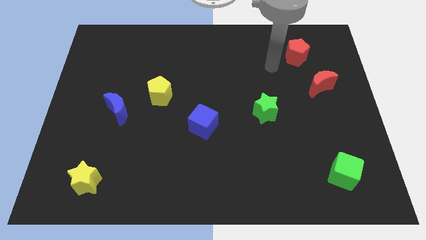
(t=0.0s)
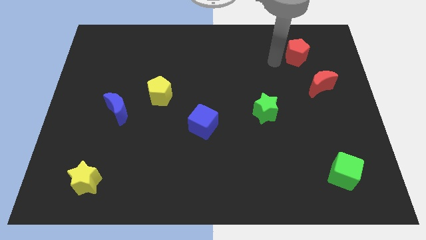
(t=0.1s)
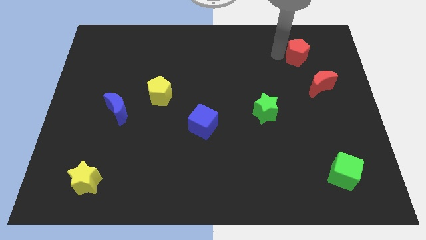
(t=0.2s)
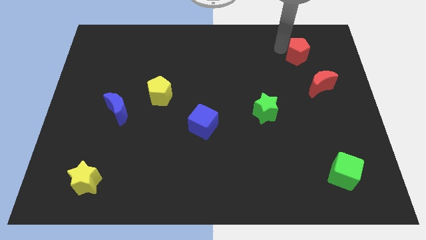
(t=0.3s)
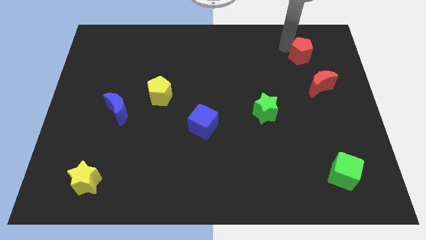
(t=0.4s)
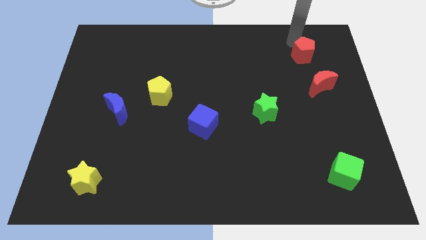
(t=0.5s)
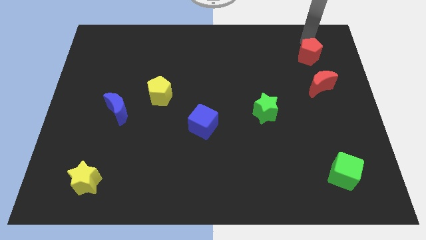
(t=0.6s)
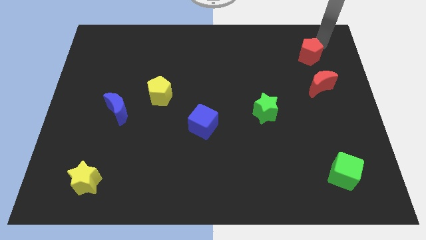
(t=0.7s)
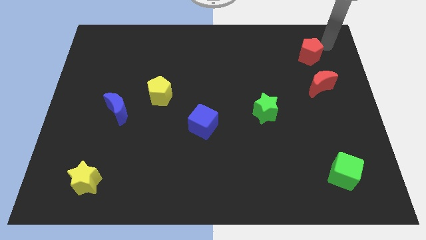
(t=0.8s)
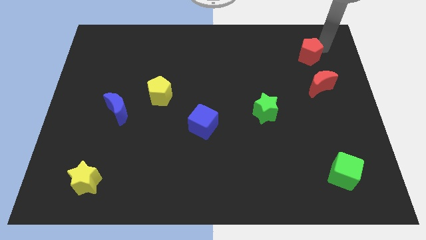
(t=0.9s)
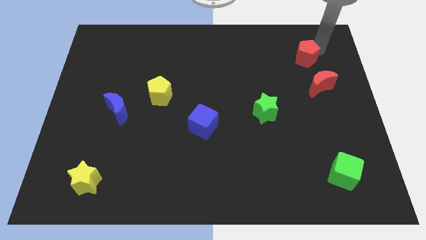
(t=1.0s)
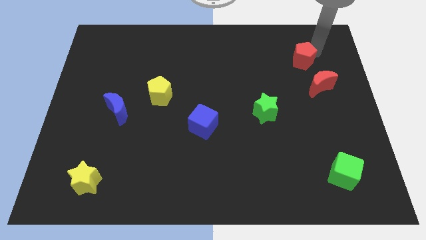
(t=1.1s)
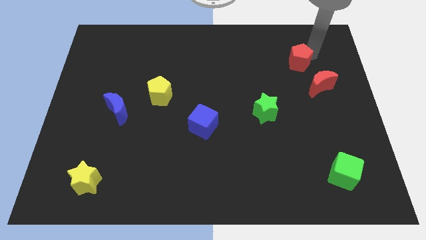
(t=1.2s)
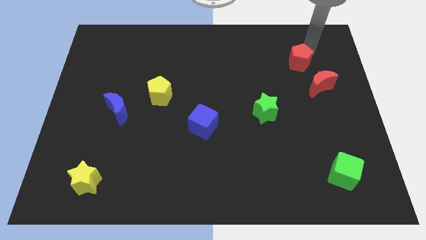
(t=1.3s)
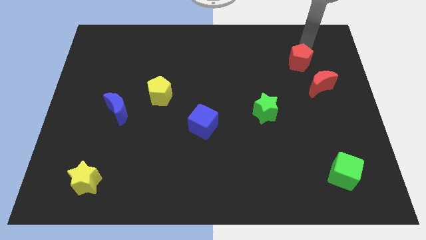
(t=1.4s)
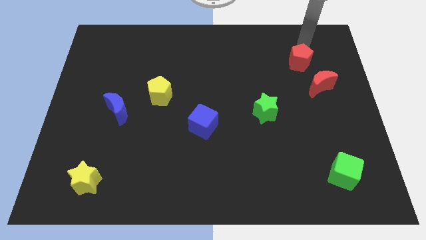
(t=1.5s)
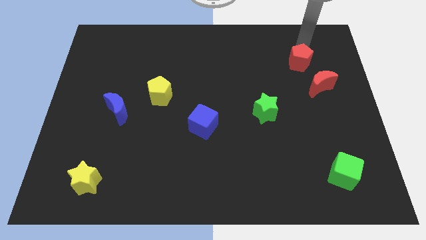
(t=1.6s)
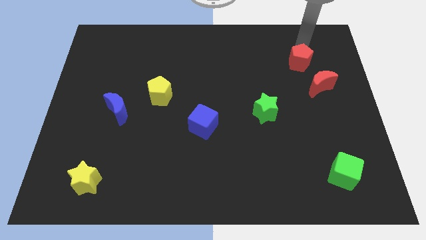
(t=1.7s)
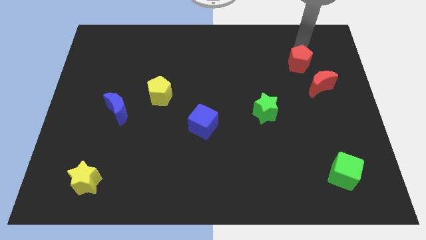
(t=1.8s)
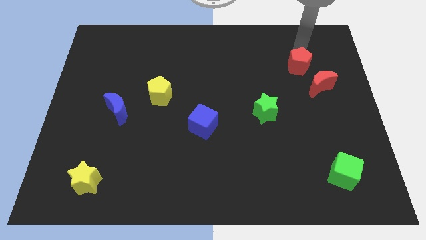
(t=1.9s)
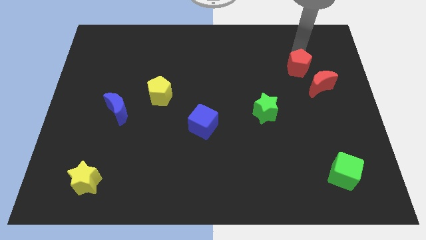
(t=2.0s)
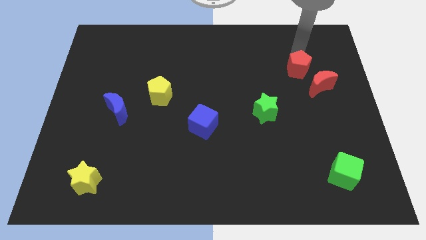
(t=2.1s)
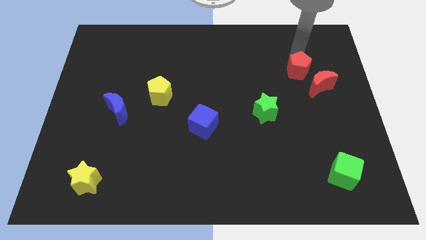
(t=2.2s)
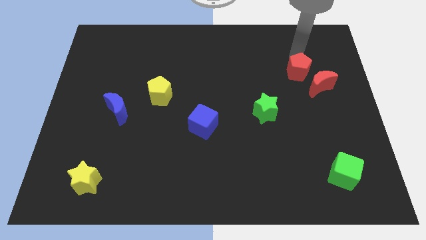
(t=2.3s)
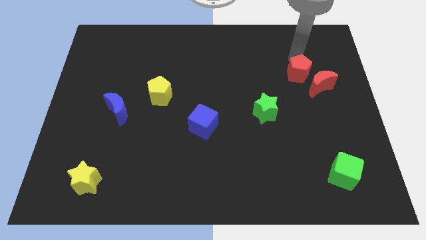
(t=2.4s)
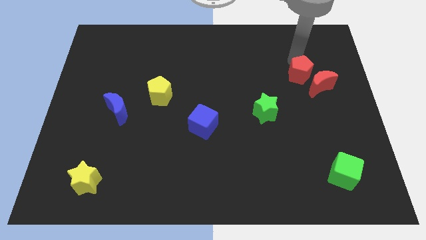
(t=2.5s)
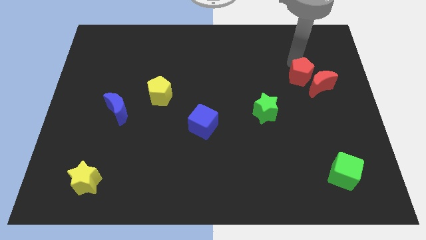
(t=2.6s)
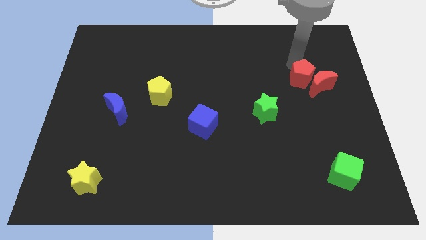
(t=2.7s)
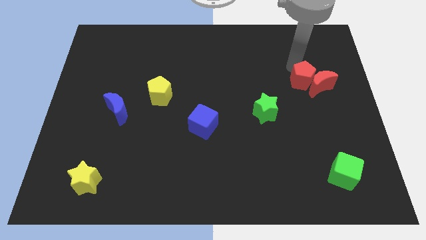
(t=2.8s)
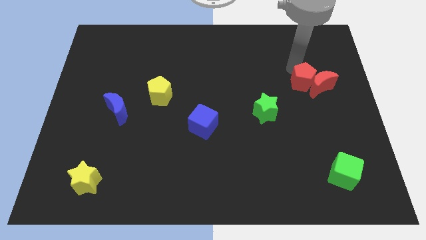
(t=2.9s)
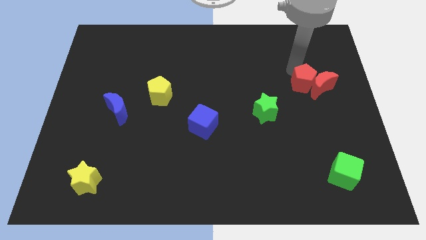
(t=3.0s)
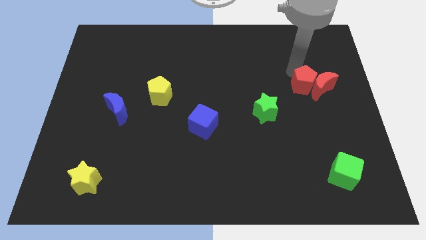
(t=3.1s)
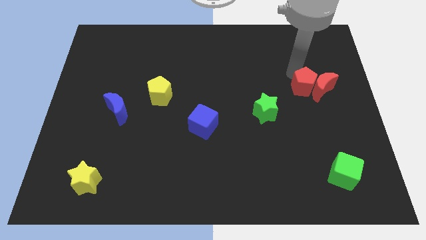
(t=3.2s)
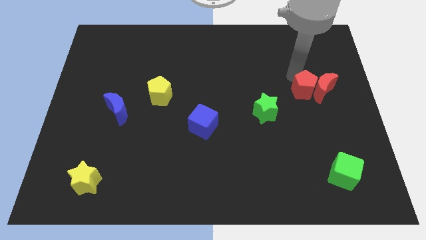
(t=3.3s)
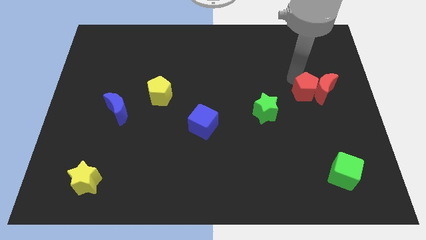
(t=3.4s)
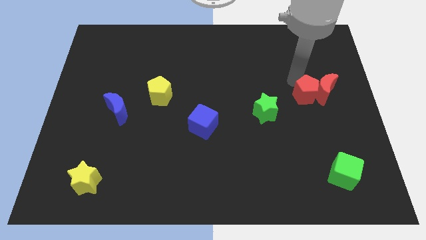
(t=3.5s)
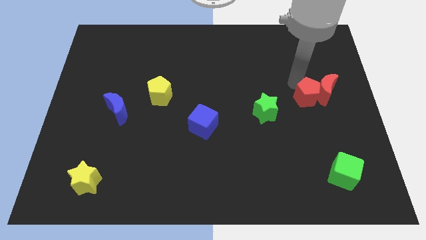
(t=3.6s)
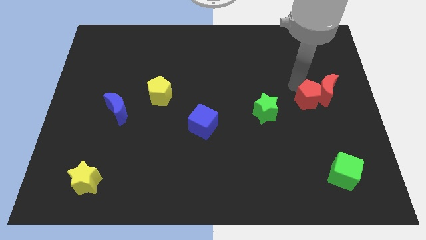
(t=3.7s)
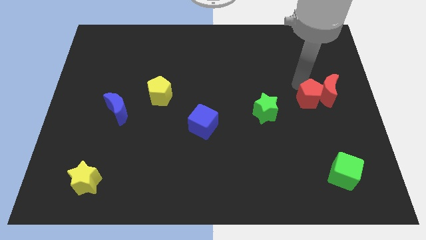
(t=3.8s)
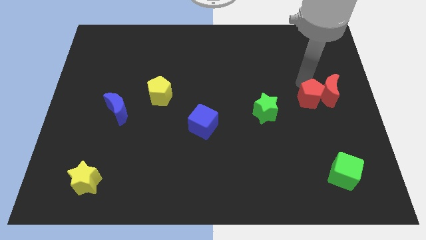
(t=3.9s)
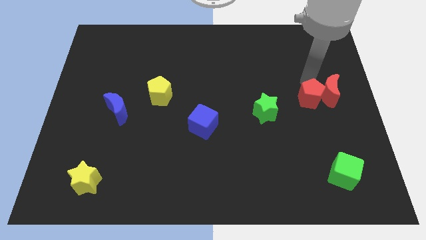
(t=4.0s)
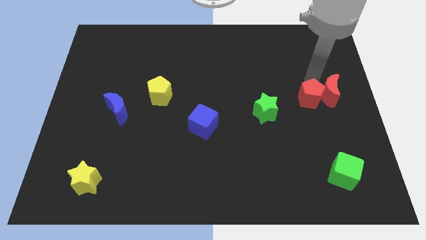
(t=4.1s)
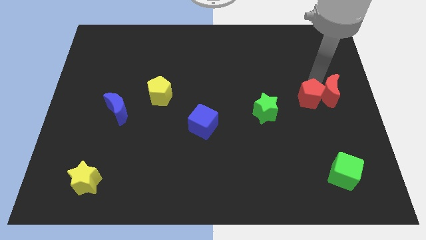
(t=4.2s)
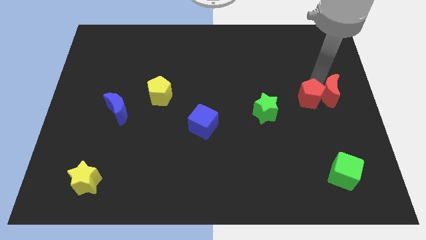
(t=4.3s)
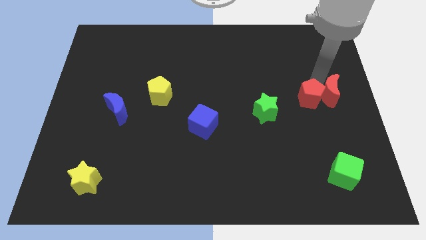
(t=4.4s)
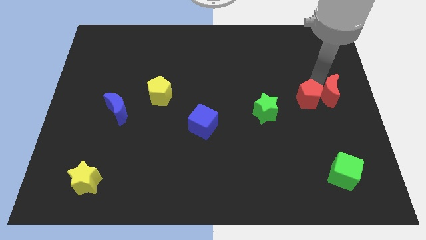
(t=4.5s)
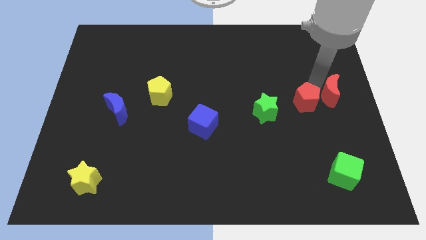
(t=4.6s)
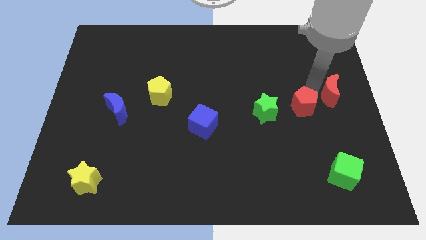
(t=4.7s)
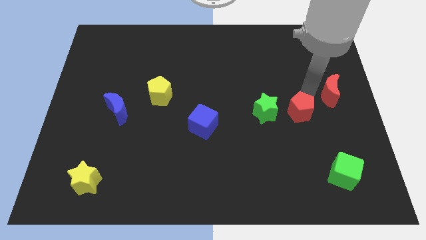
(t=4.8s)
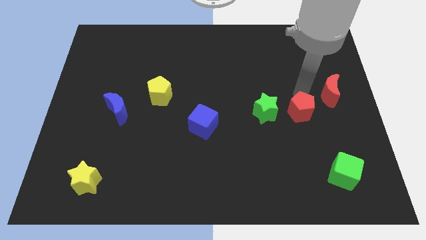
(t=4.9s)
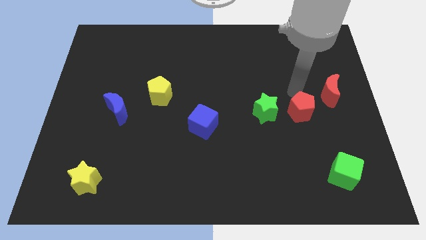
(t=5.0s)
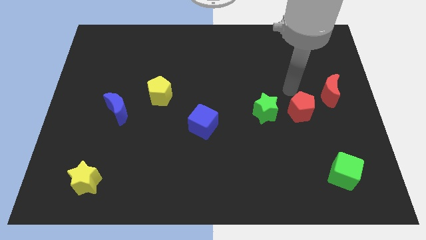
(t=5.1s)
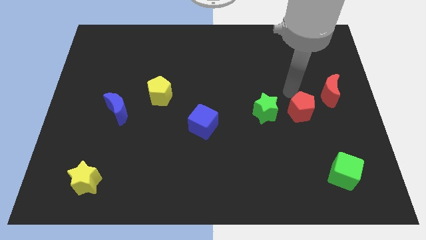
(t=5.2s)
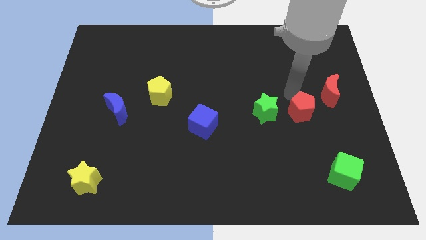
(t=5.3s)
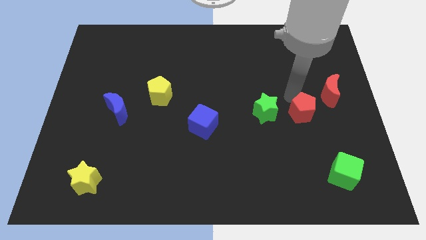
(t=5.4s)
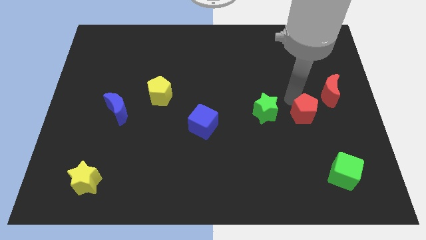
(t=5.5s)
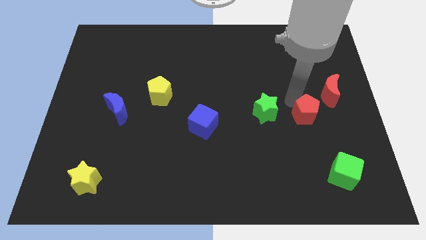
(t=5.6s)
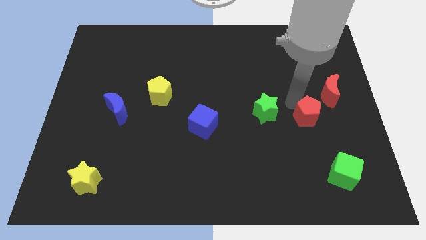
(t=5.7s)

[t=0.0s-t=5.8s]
move the red pentagon downwards

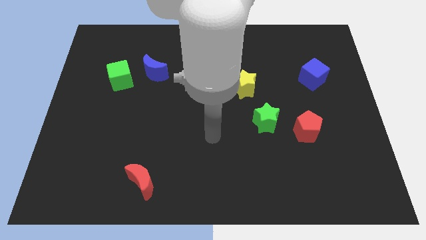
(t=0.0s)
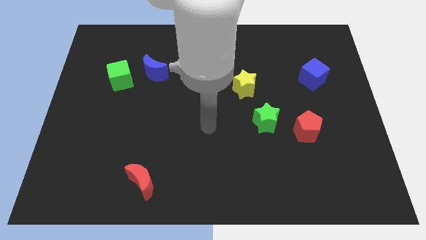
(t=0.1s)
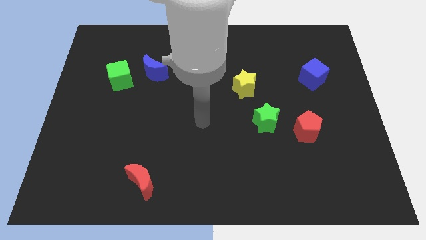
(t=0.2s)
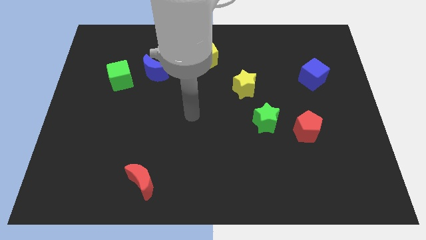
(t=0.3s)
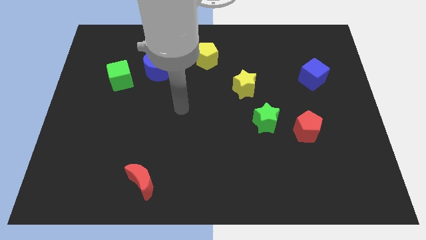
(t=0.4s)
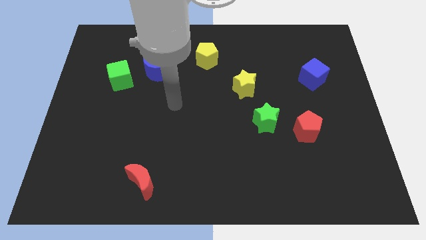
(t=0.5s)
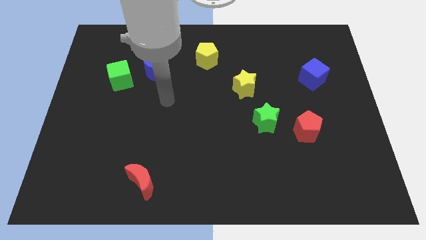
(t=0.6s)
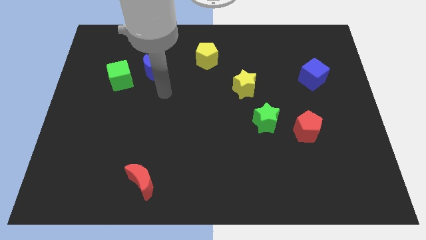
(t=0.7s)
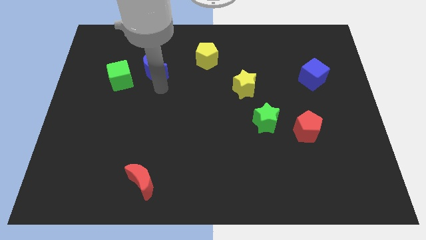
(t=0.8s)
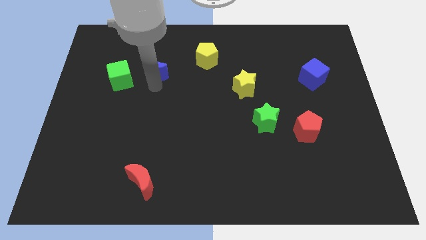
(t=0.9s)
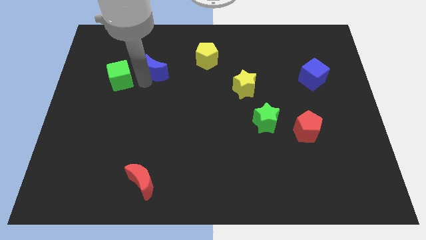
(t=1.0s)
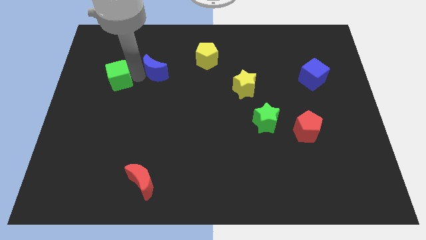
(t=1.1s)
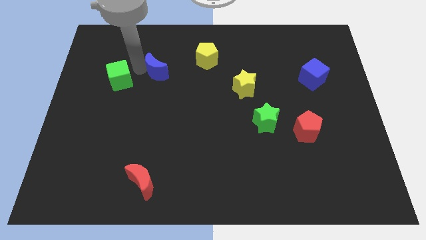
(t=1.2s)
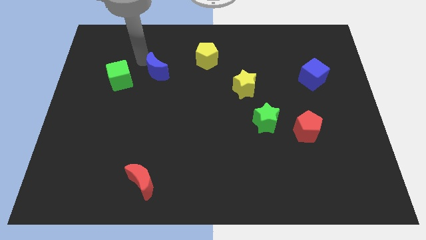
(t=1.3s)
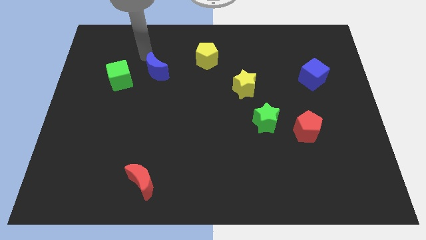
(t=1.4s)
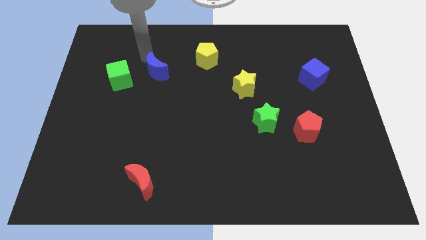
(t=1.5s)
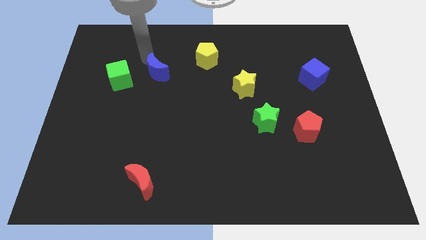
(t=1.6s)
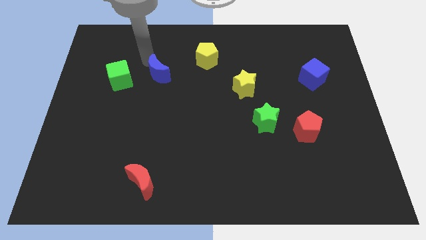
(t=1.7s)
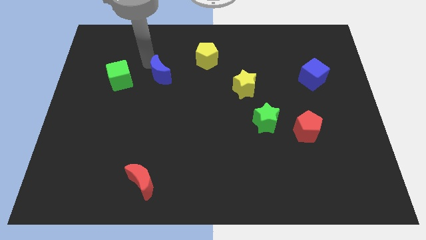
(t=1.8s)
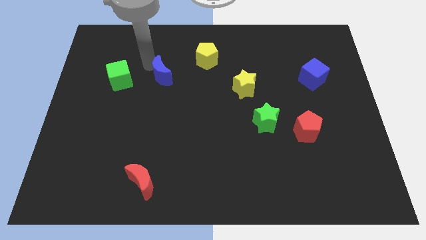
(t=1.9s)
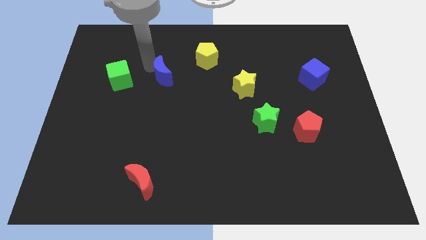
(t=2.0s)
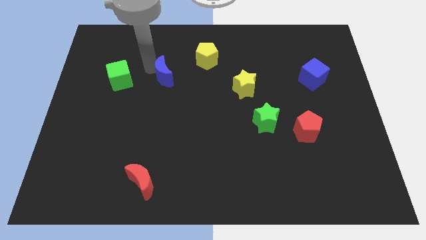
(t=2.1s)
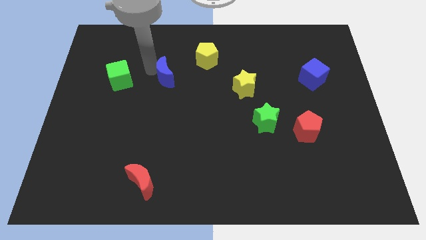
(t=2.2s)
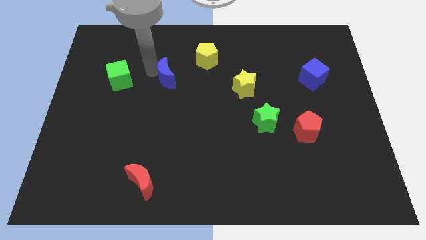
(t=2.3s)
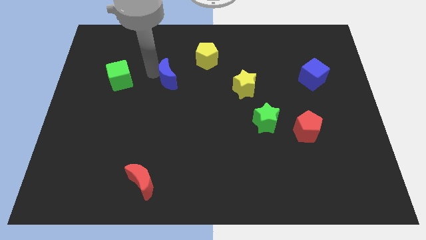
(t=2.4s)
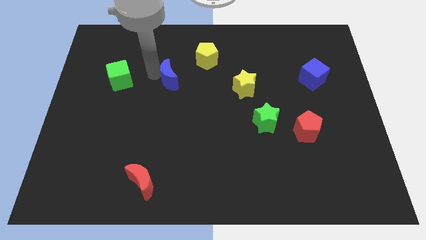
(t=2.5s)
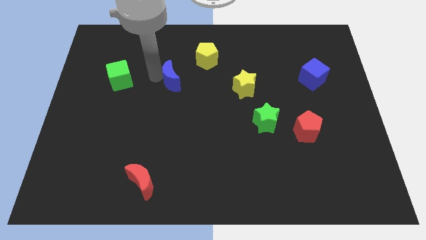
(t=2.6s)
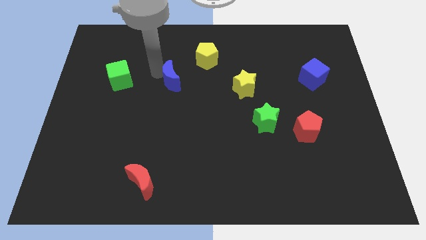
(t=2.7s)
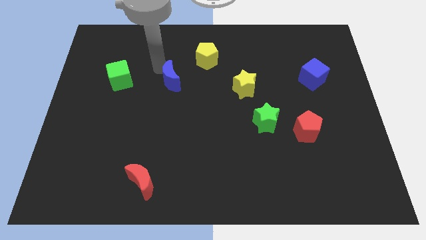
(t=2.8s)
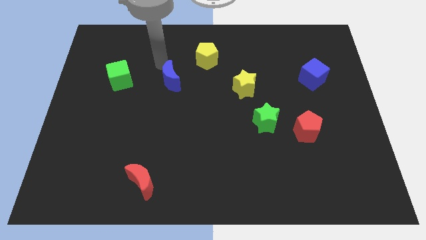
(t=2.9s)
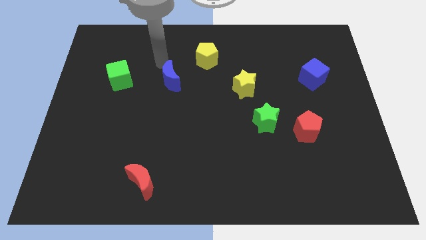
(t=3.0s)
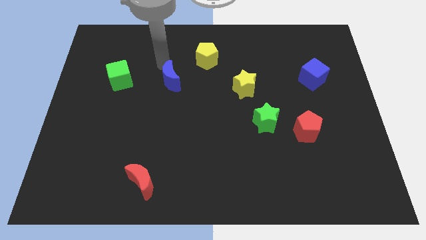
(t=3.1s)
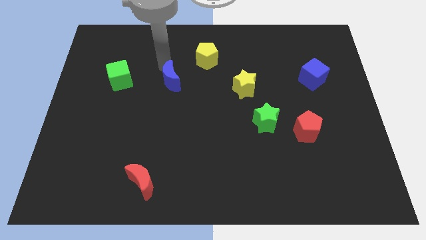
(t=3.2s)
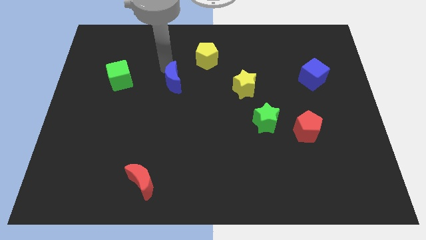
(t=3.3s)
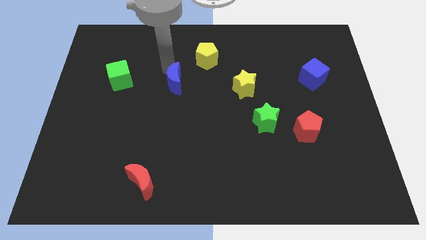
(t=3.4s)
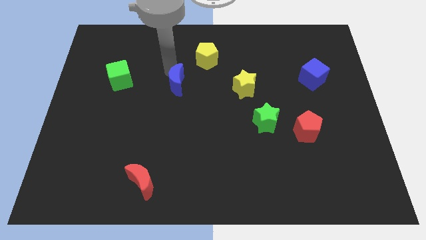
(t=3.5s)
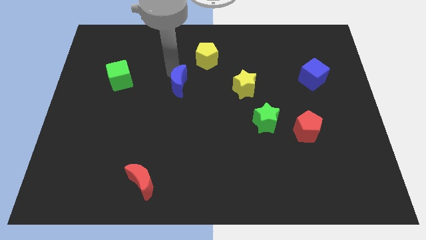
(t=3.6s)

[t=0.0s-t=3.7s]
move the blue moon somewhat down and right
